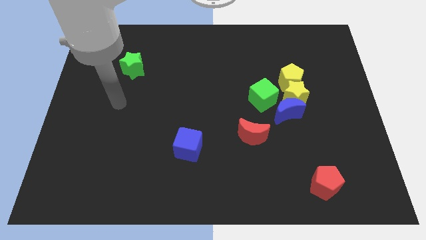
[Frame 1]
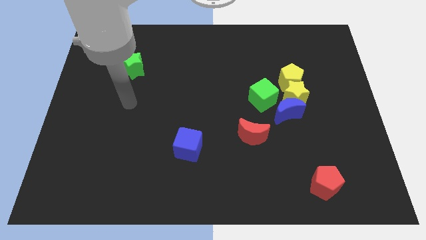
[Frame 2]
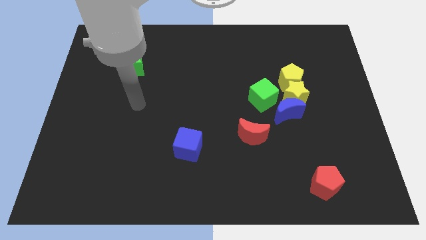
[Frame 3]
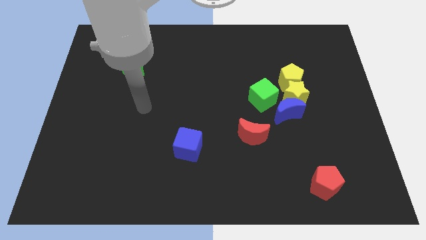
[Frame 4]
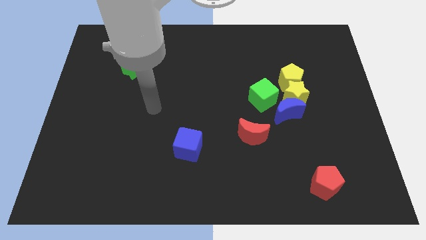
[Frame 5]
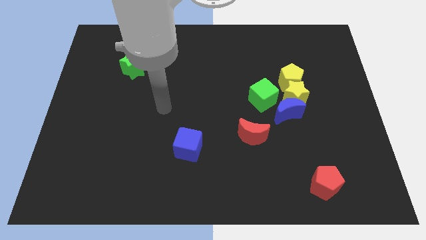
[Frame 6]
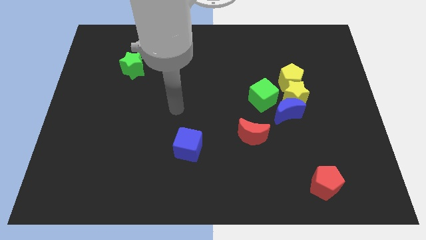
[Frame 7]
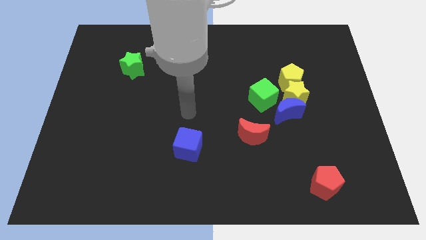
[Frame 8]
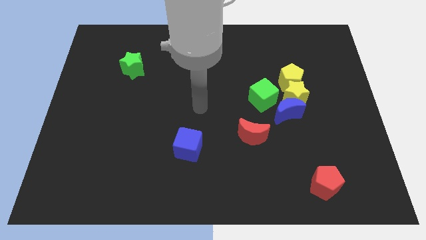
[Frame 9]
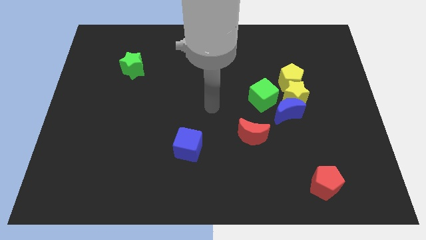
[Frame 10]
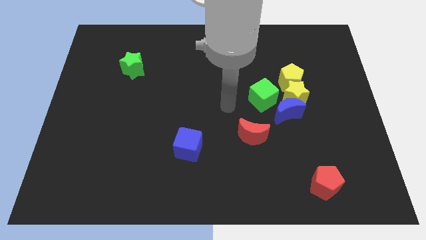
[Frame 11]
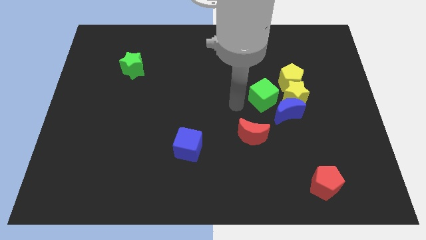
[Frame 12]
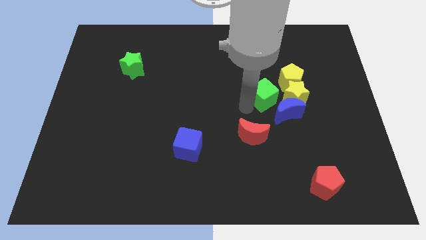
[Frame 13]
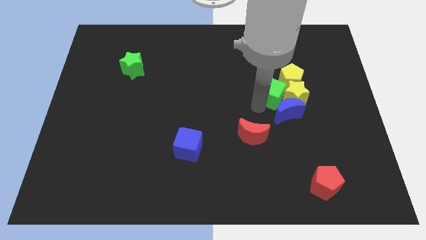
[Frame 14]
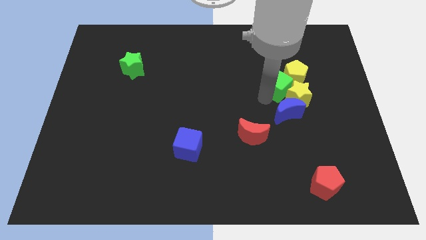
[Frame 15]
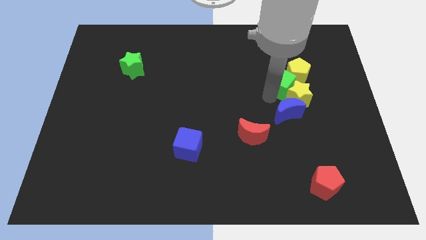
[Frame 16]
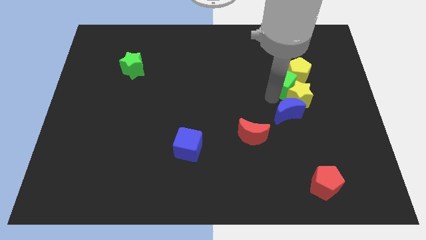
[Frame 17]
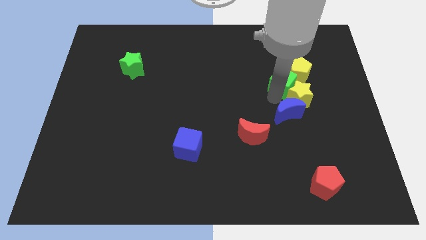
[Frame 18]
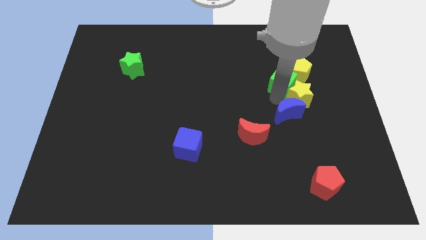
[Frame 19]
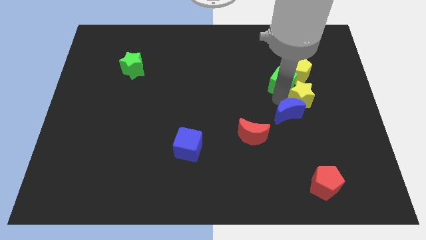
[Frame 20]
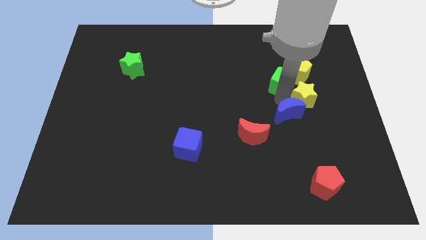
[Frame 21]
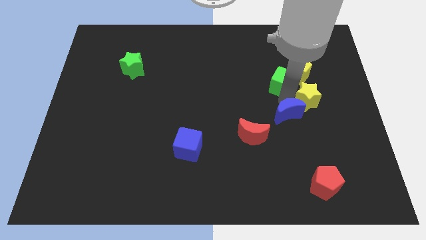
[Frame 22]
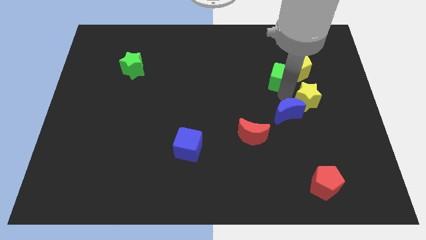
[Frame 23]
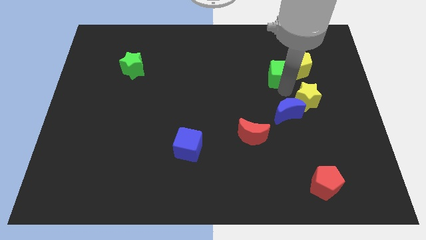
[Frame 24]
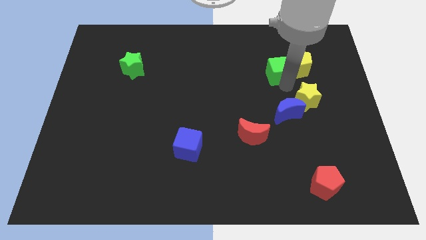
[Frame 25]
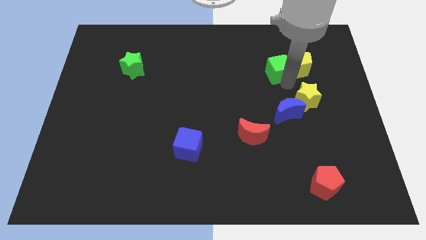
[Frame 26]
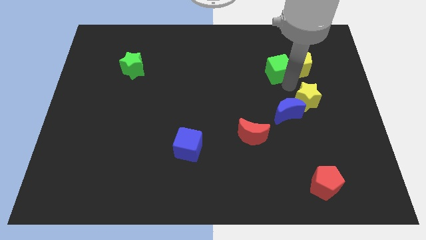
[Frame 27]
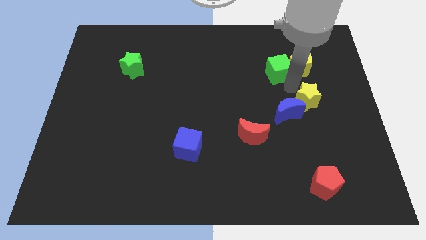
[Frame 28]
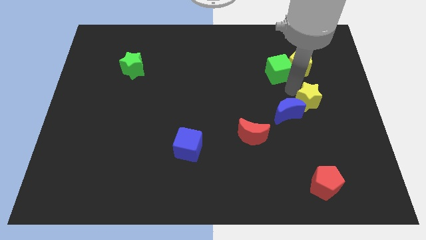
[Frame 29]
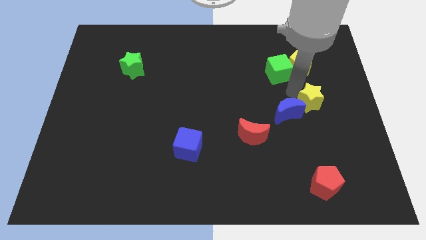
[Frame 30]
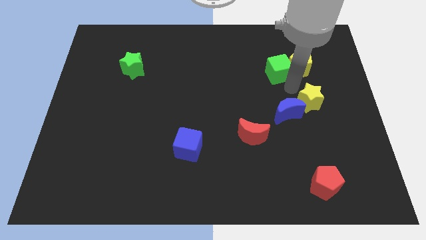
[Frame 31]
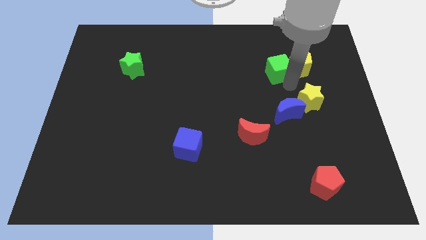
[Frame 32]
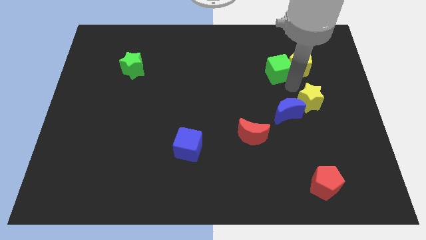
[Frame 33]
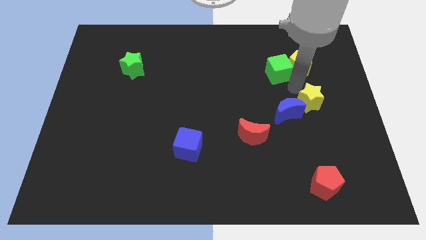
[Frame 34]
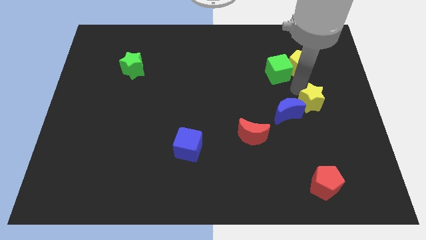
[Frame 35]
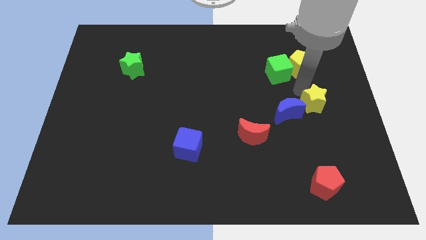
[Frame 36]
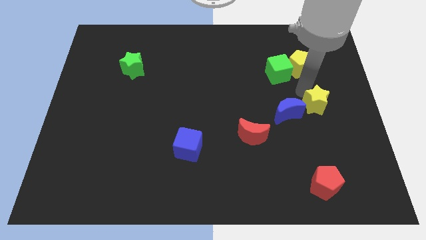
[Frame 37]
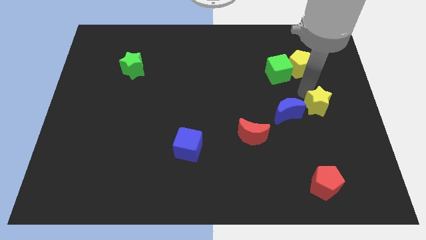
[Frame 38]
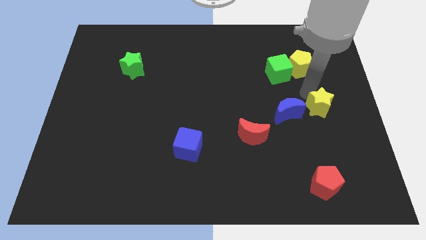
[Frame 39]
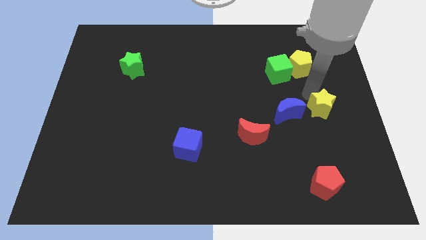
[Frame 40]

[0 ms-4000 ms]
separate the yellow star from the group of blocks

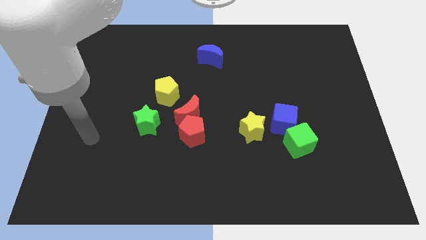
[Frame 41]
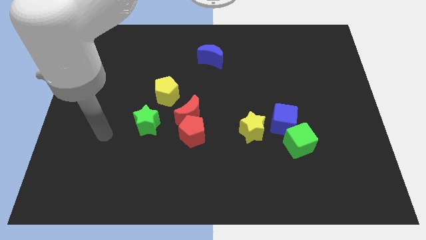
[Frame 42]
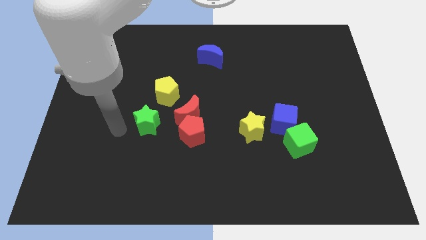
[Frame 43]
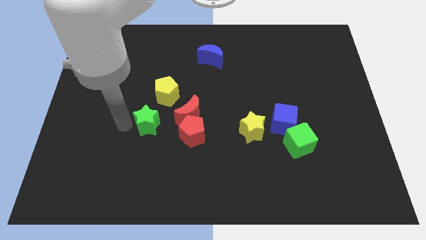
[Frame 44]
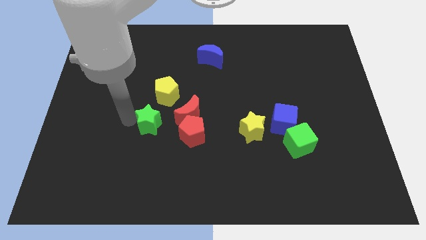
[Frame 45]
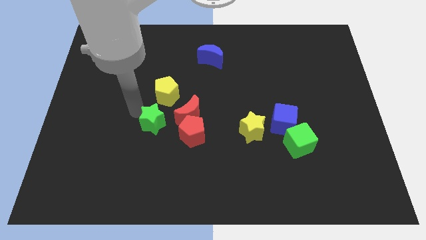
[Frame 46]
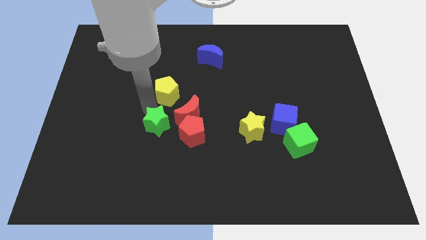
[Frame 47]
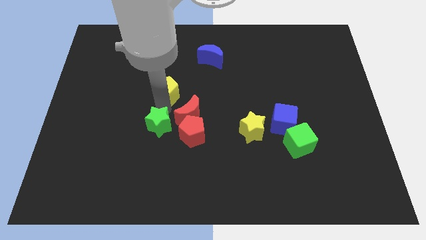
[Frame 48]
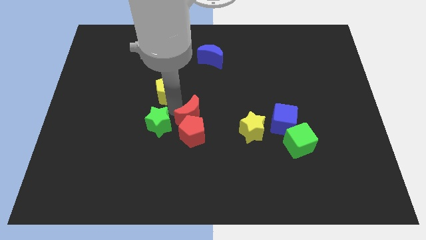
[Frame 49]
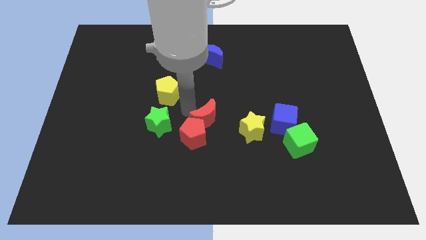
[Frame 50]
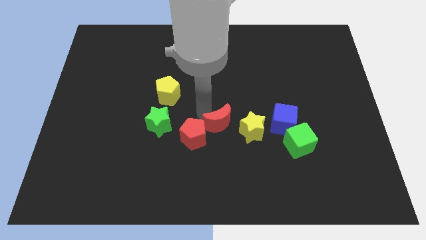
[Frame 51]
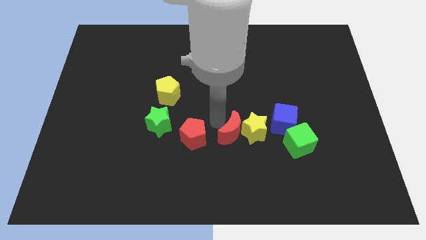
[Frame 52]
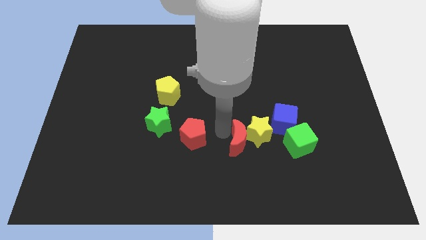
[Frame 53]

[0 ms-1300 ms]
separate the red pentagon from the red moon

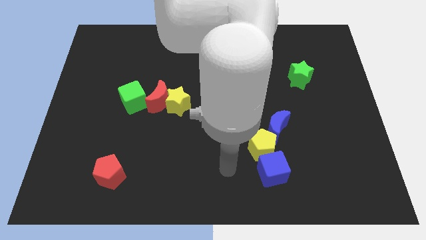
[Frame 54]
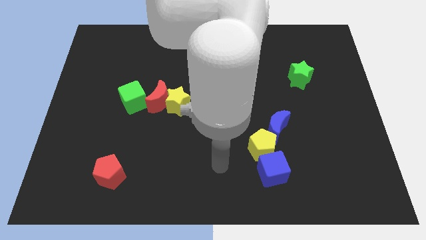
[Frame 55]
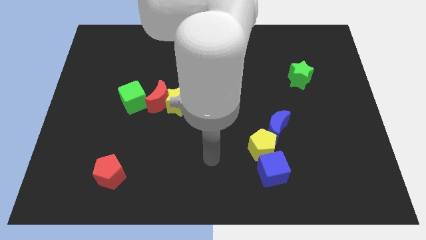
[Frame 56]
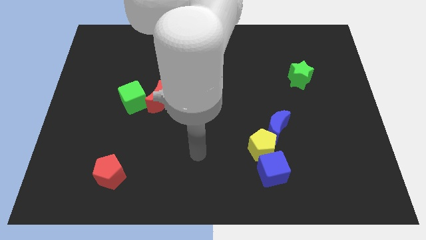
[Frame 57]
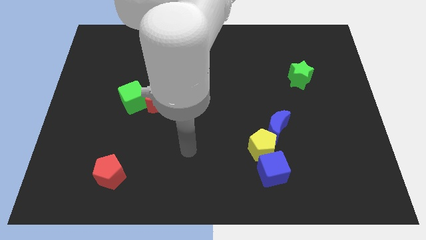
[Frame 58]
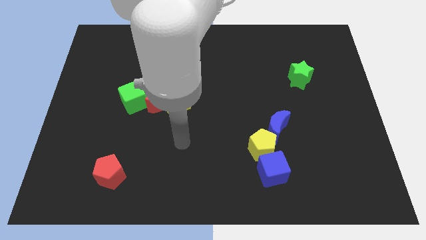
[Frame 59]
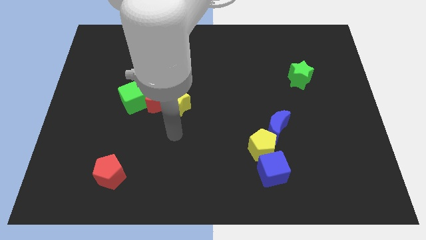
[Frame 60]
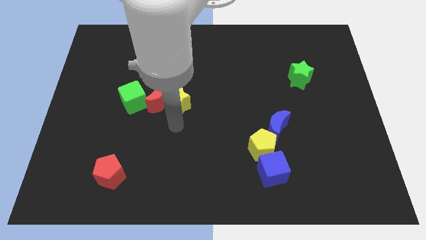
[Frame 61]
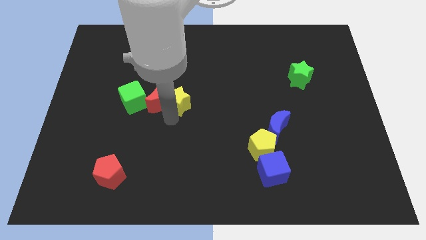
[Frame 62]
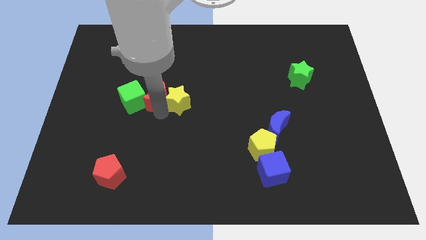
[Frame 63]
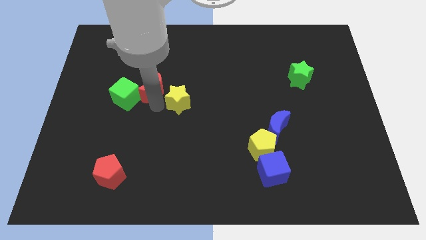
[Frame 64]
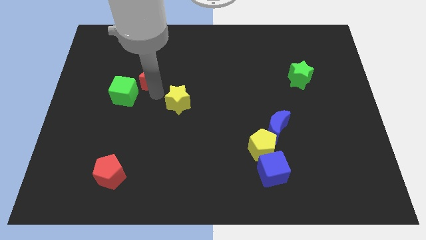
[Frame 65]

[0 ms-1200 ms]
pull the yellow star apart from the red moon

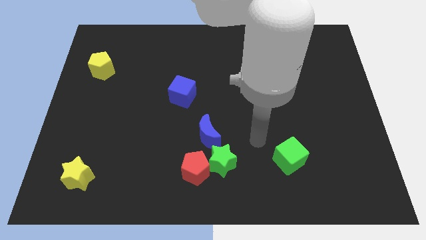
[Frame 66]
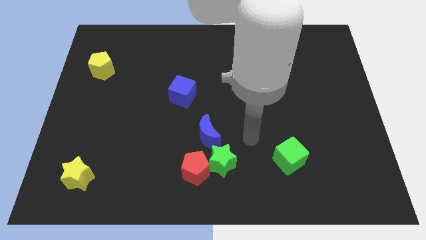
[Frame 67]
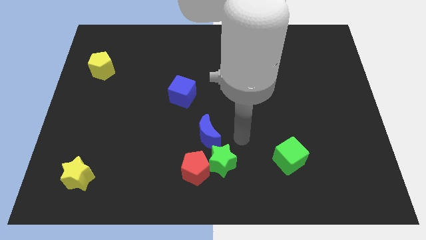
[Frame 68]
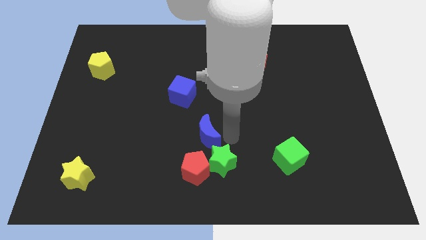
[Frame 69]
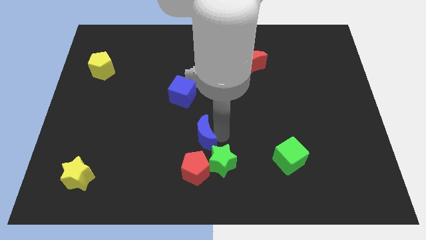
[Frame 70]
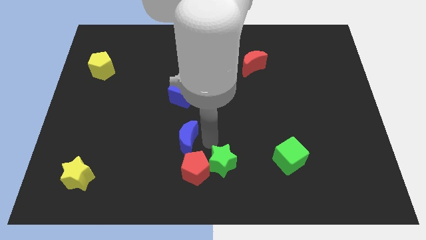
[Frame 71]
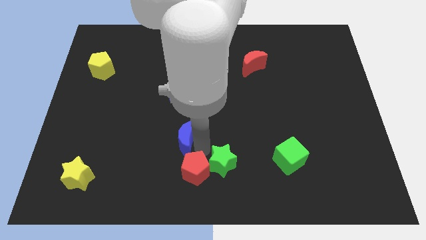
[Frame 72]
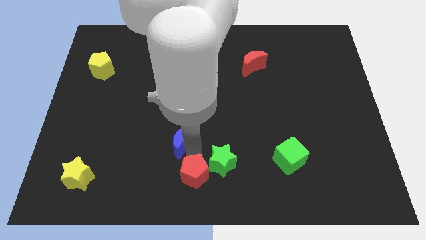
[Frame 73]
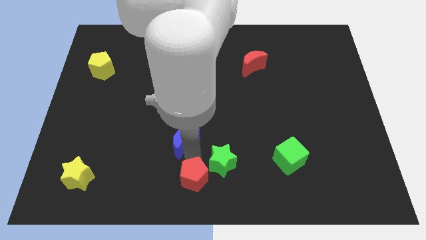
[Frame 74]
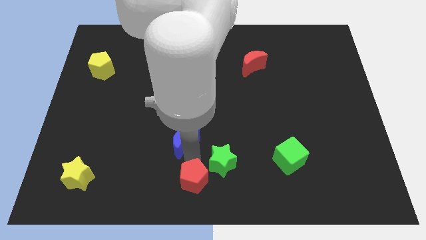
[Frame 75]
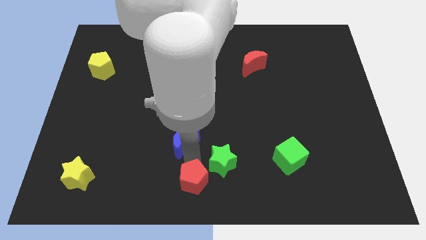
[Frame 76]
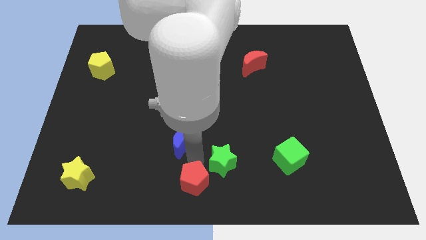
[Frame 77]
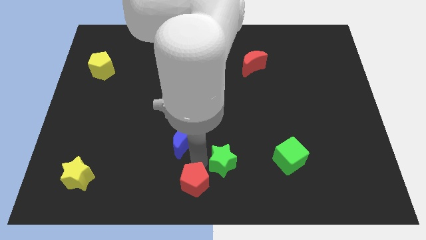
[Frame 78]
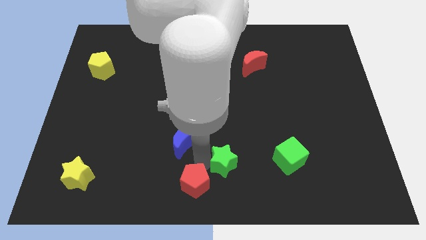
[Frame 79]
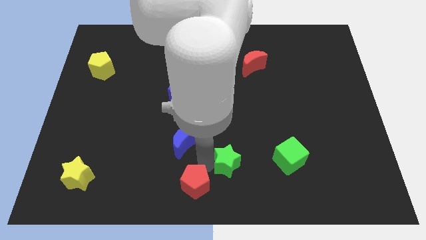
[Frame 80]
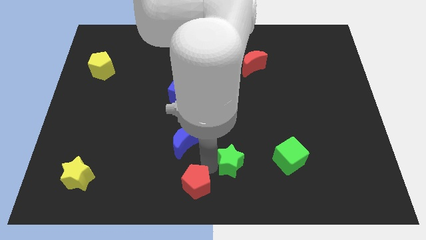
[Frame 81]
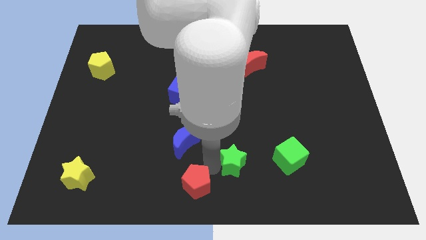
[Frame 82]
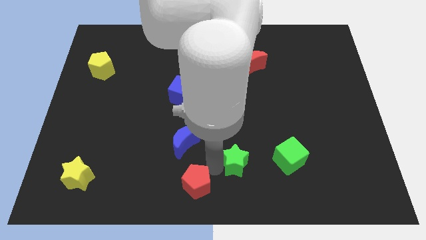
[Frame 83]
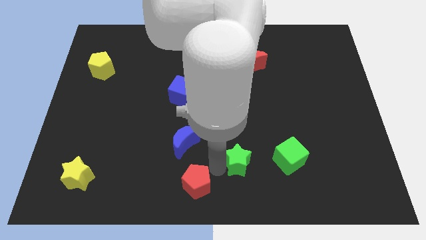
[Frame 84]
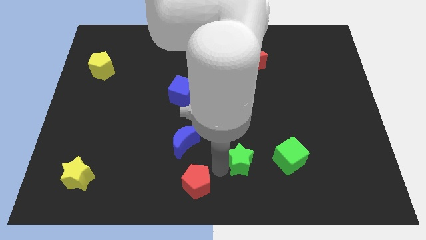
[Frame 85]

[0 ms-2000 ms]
move the green star away from the red pentagon and blue moon

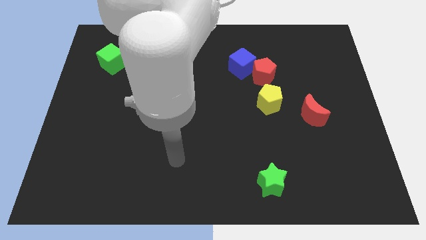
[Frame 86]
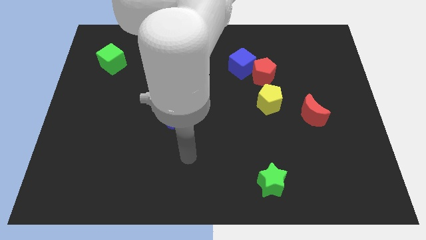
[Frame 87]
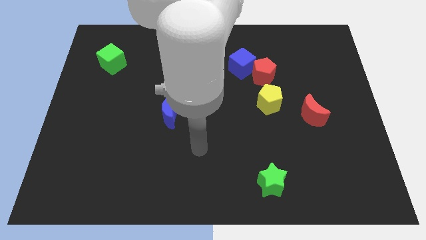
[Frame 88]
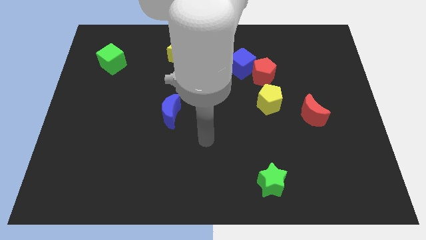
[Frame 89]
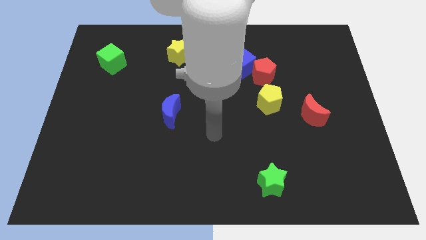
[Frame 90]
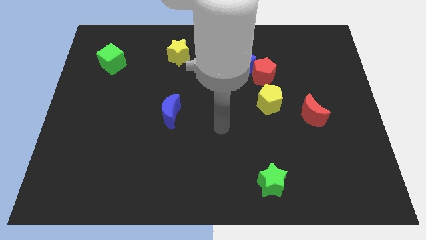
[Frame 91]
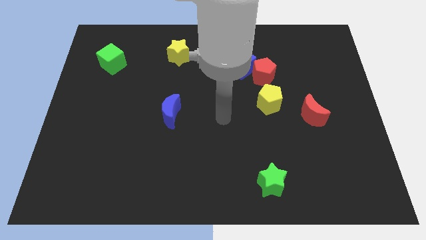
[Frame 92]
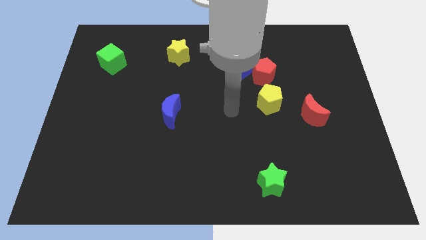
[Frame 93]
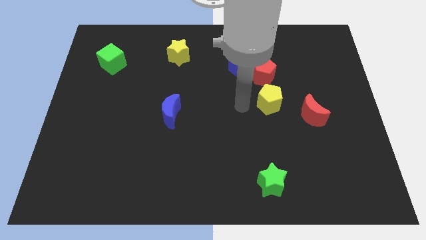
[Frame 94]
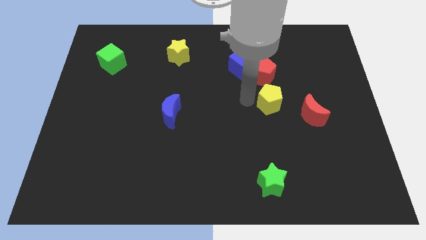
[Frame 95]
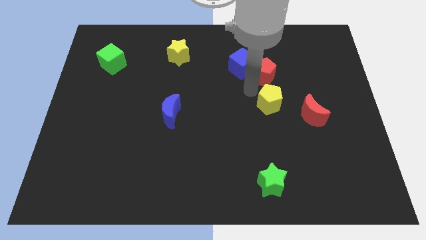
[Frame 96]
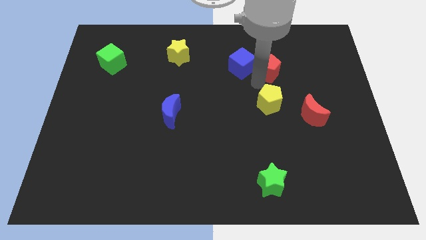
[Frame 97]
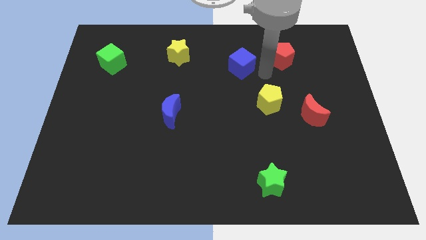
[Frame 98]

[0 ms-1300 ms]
move the blue cube away from the red pentagon
